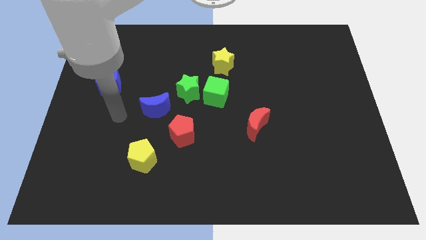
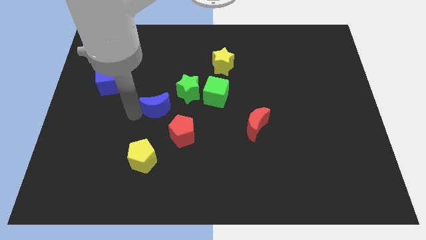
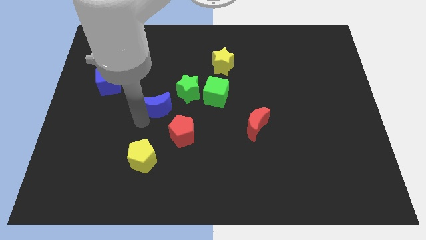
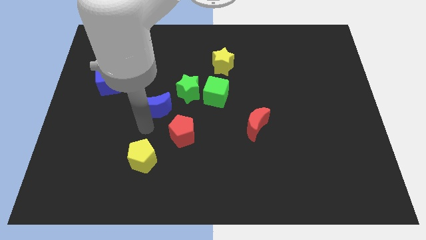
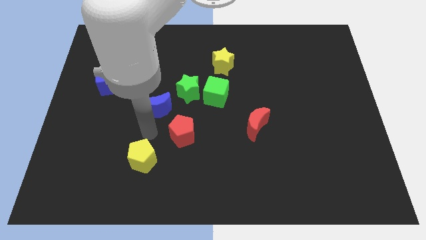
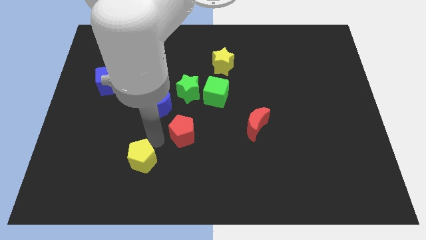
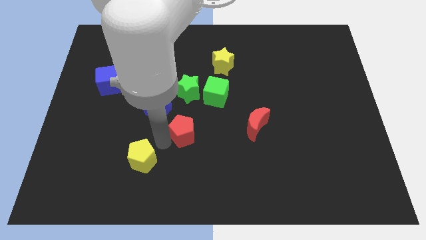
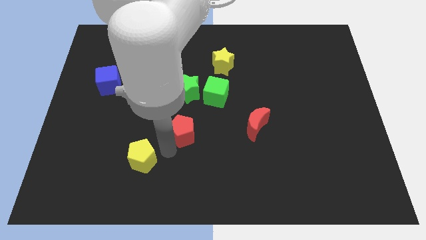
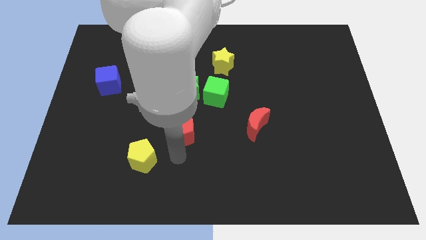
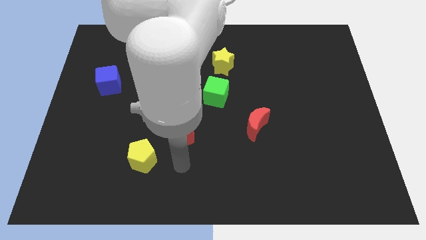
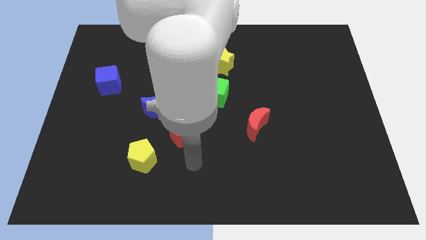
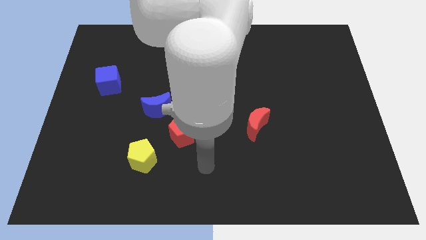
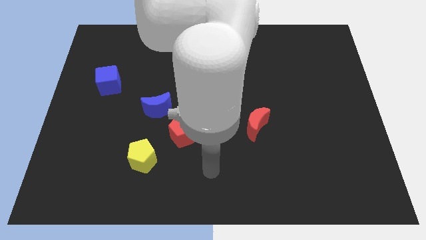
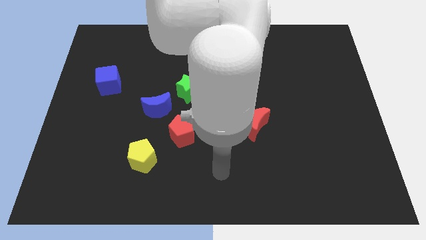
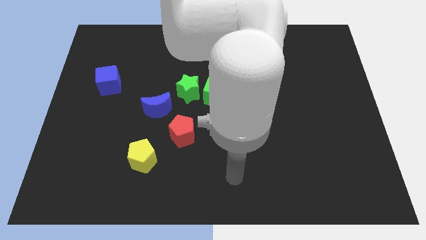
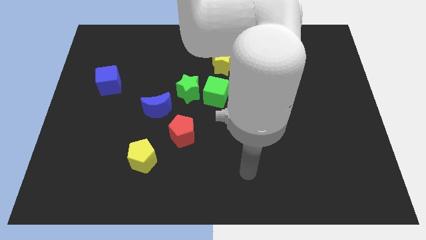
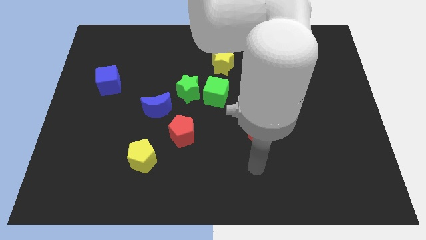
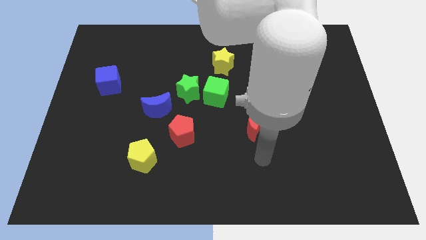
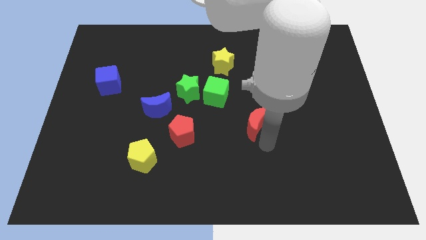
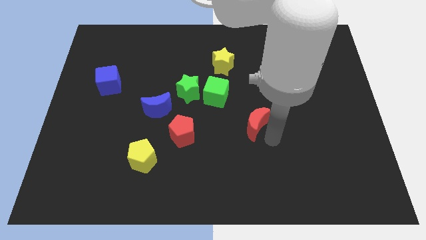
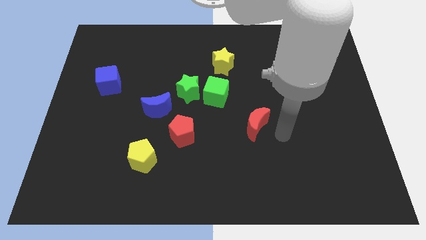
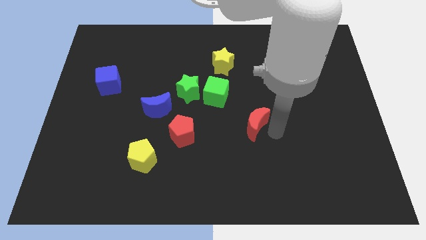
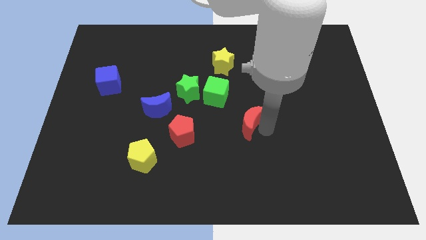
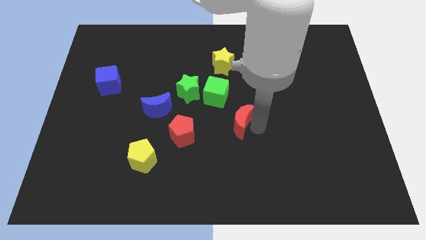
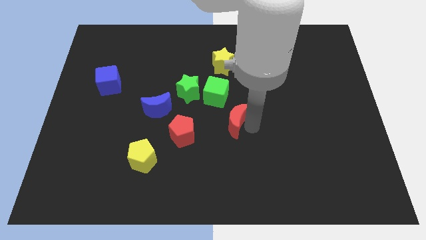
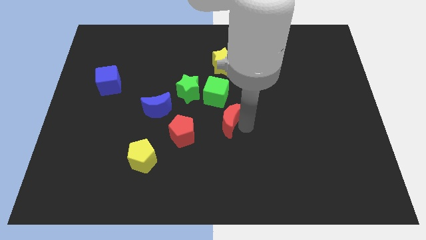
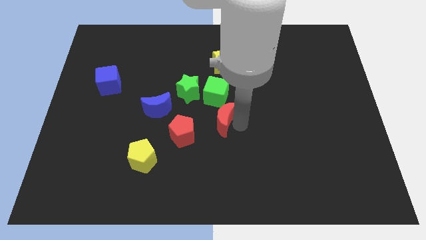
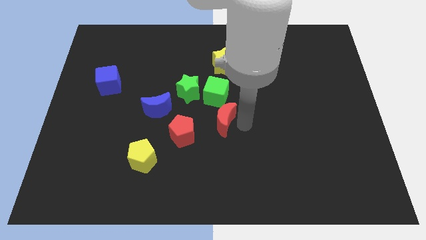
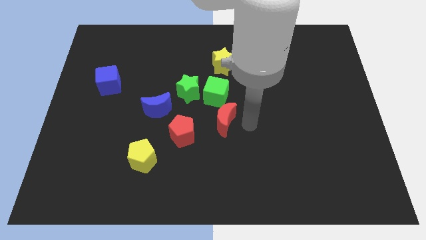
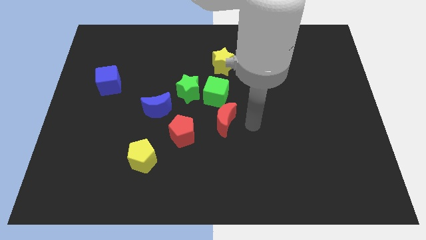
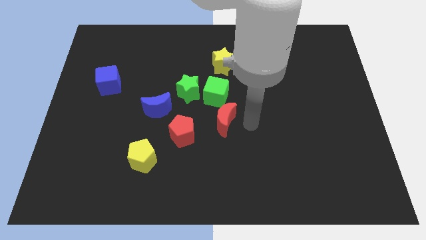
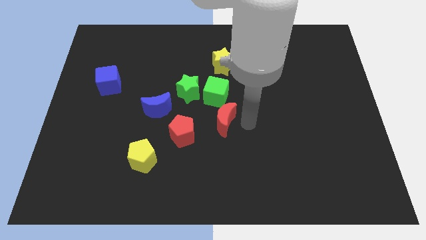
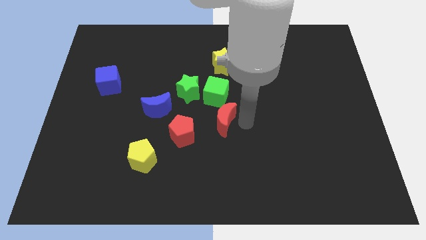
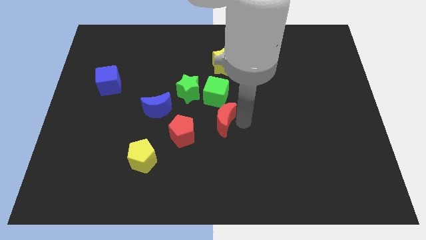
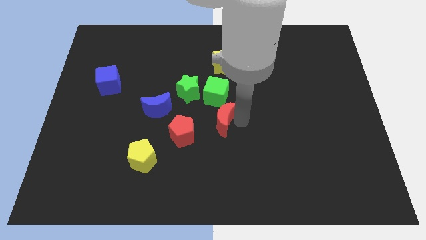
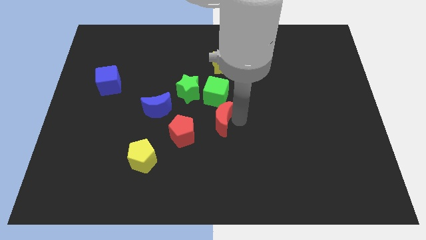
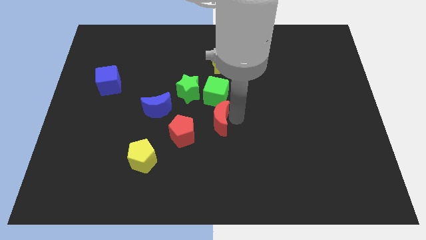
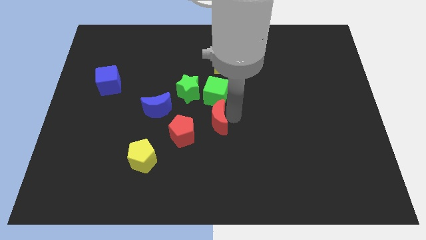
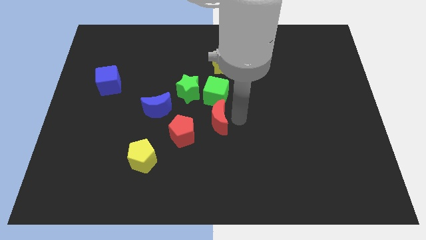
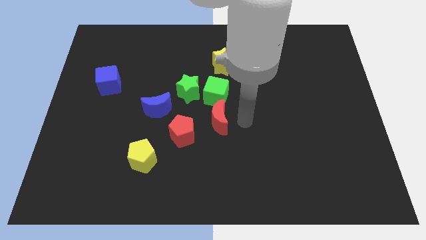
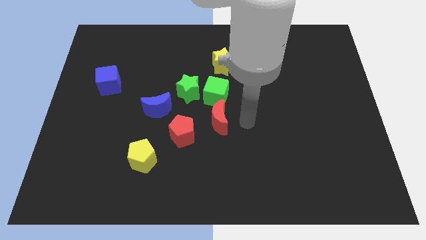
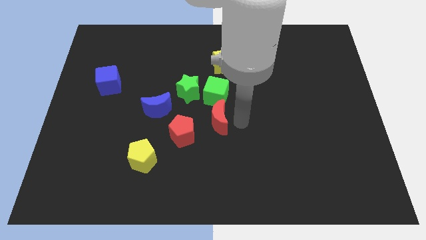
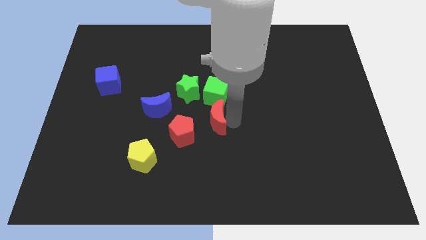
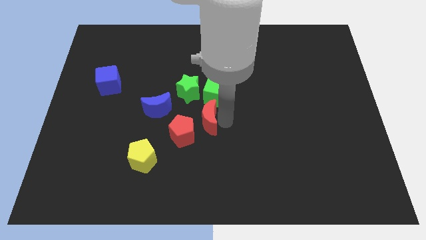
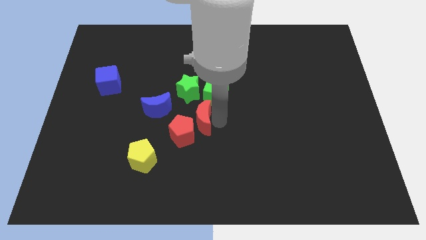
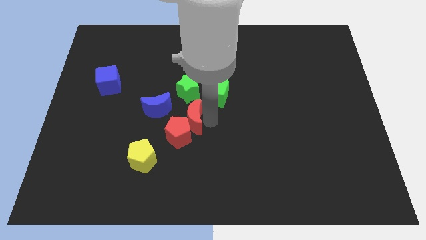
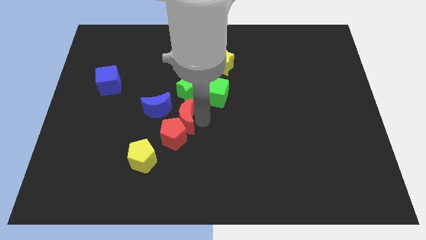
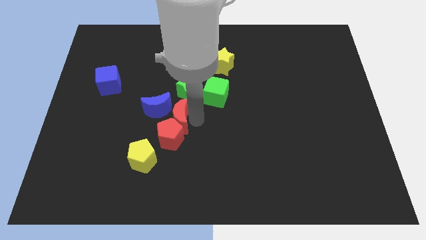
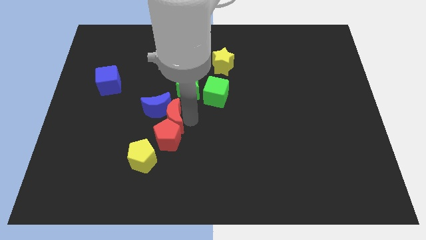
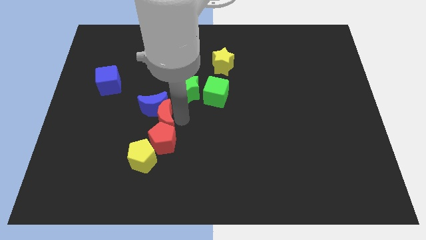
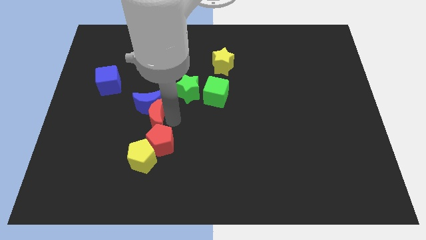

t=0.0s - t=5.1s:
move the red moon diagonally down and to the left of the blue moon

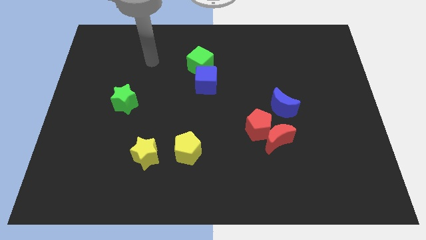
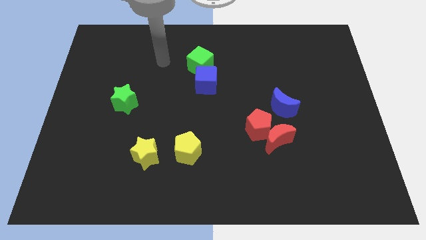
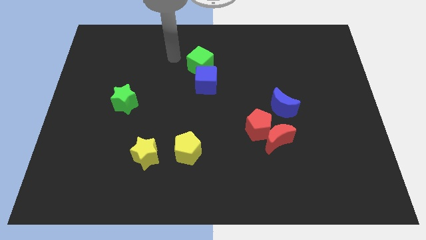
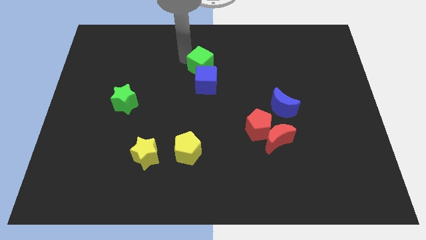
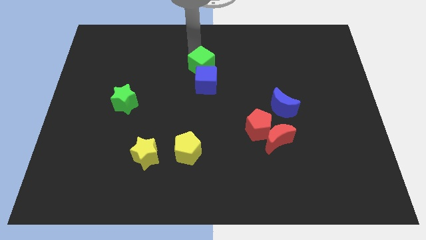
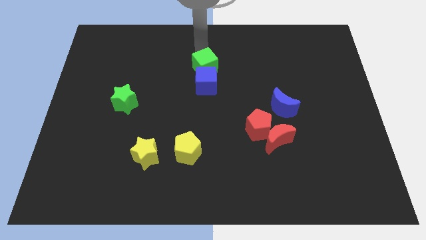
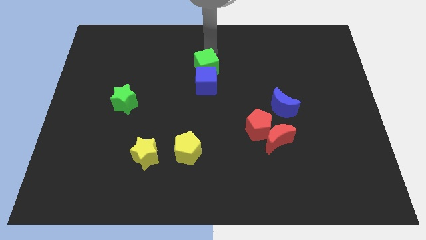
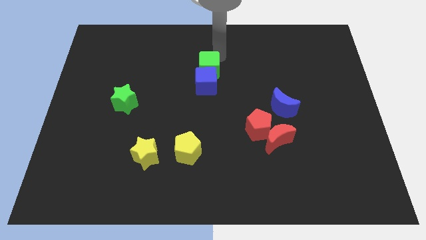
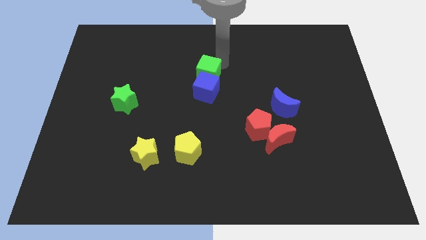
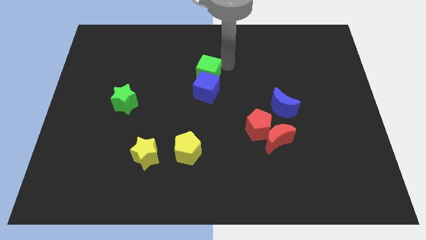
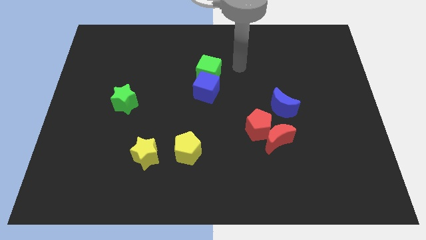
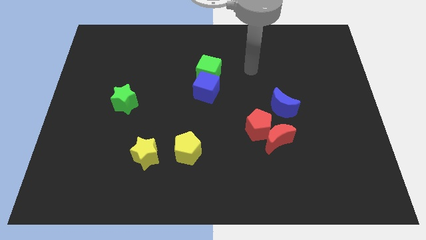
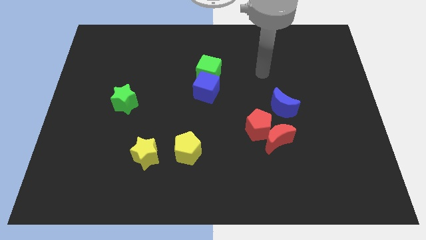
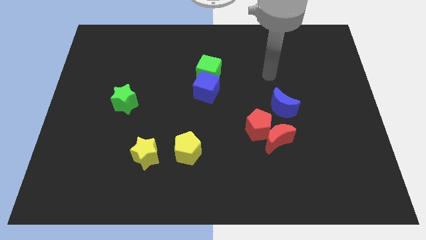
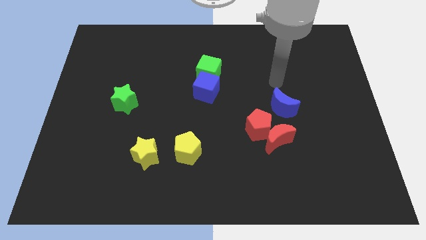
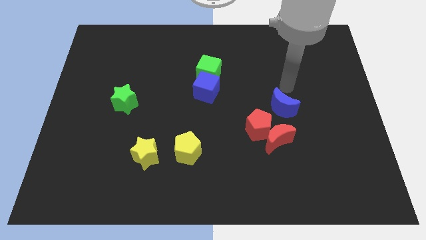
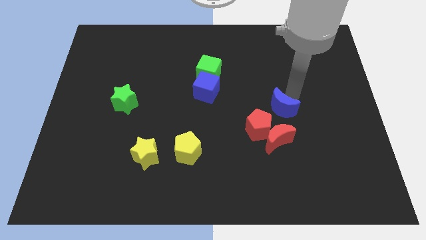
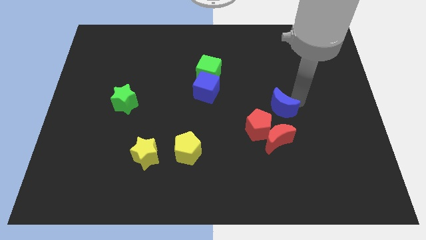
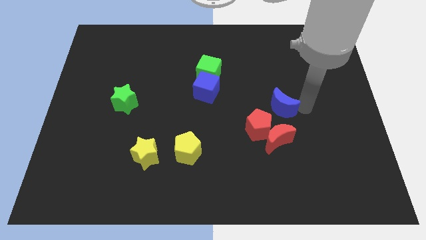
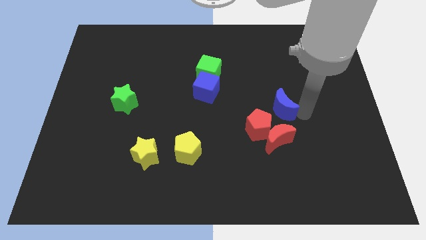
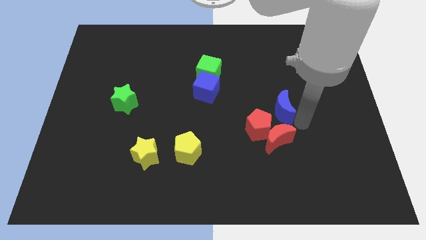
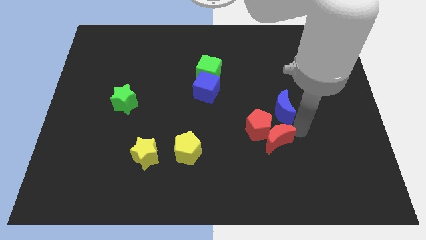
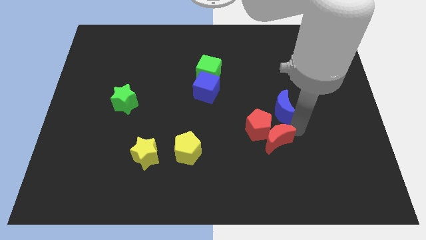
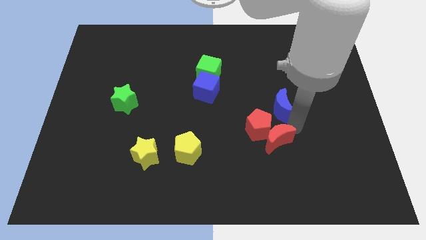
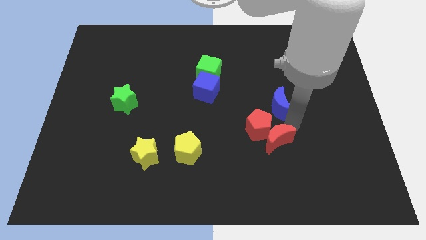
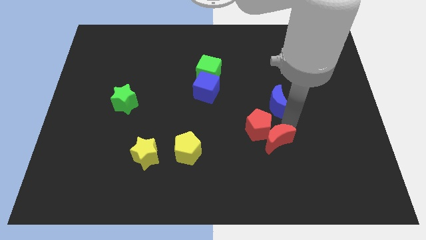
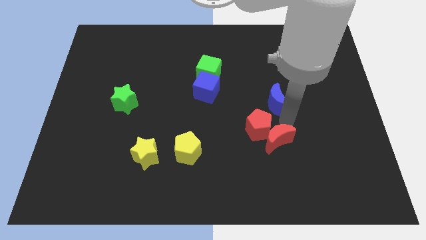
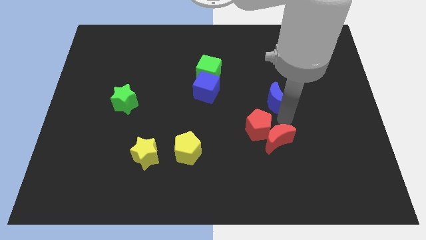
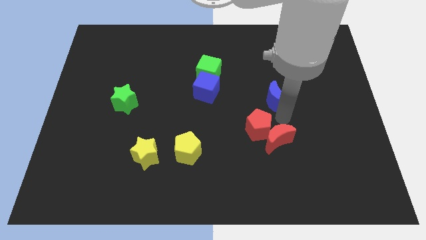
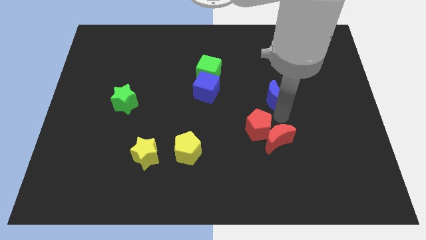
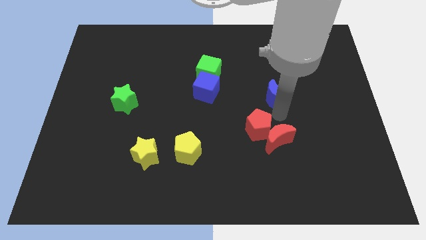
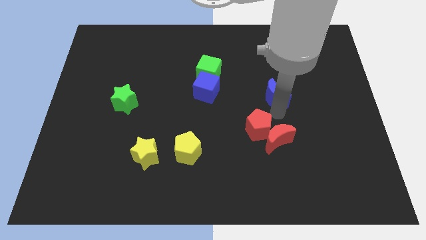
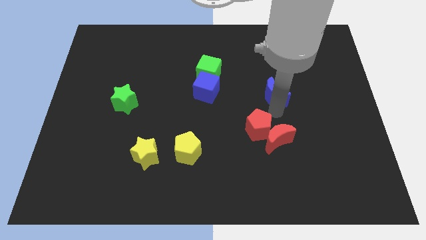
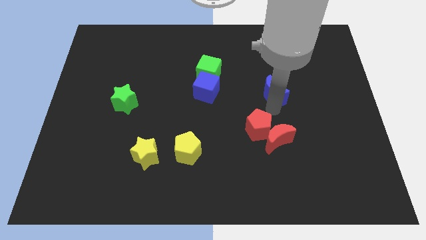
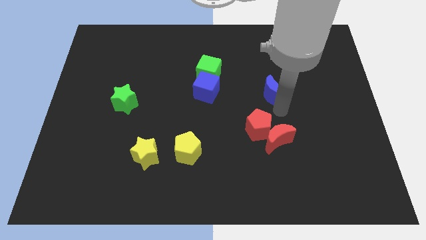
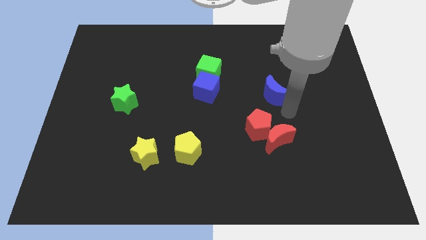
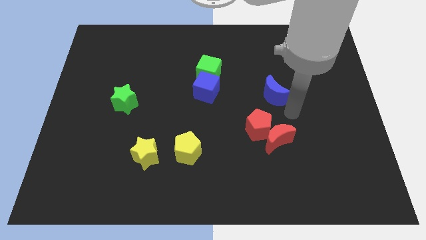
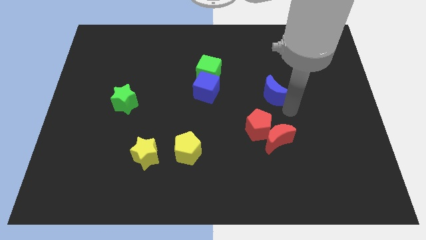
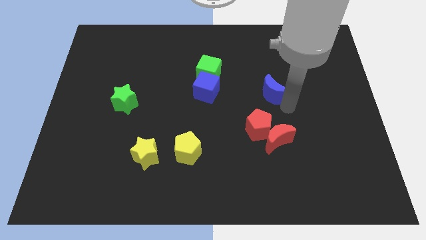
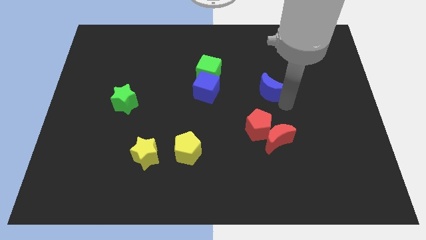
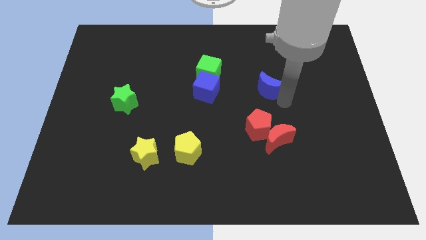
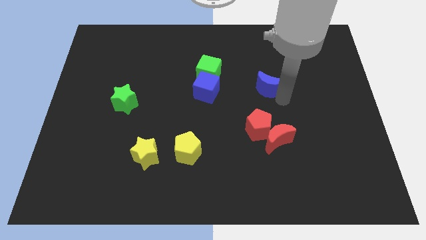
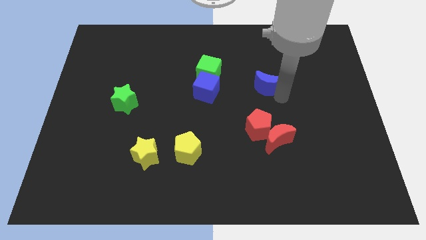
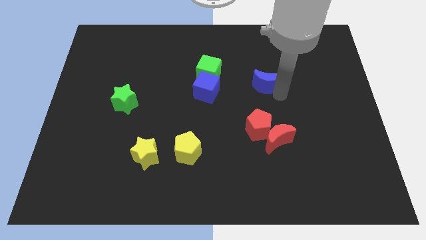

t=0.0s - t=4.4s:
push the blue moon right of the green cube
